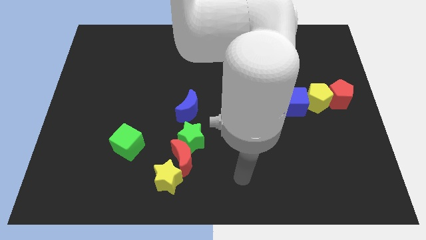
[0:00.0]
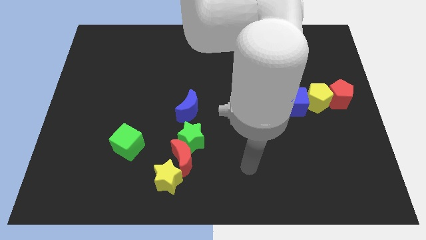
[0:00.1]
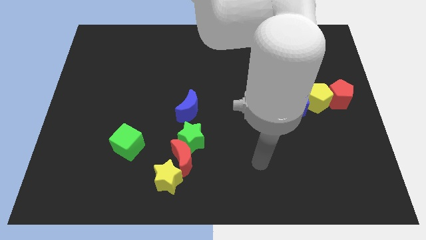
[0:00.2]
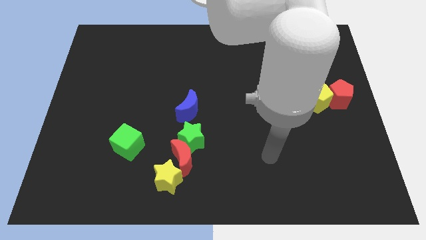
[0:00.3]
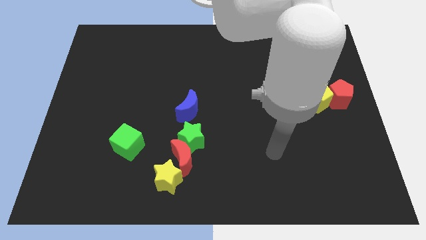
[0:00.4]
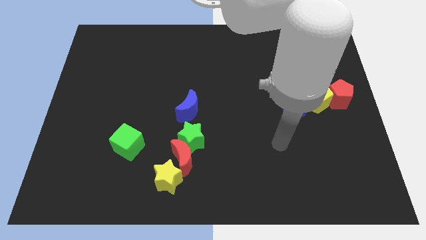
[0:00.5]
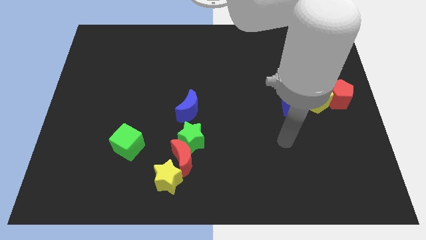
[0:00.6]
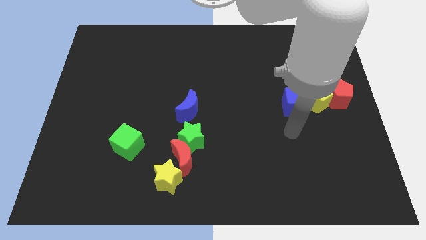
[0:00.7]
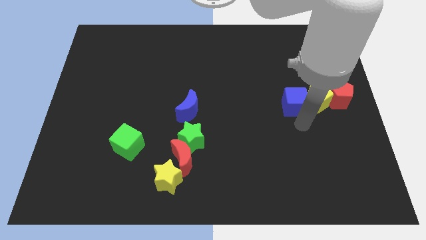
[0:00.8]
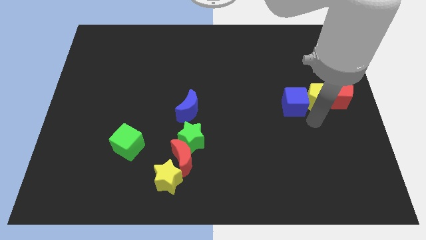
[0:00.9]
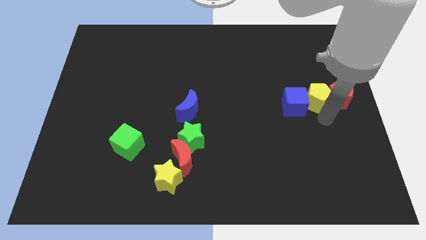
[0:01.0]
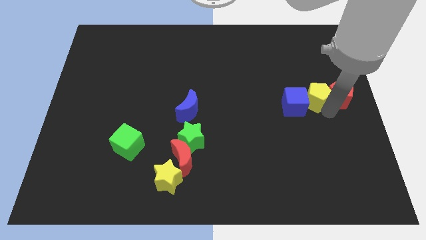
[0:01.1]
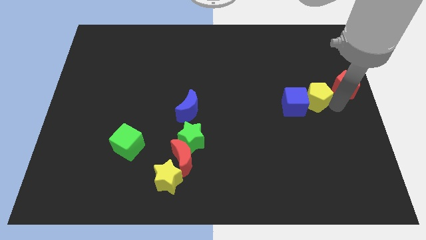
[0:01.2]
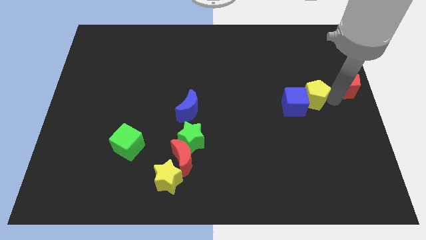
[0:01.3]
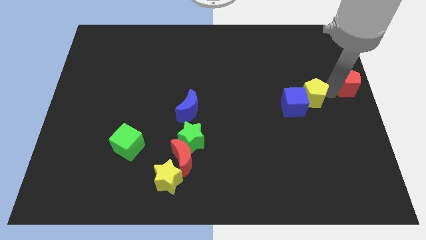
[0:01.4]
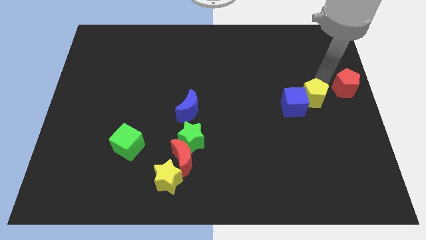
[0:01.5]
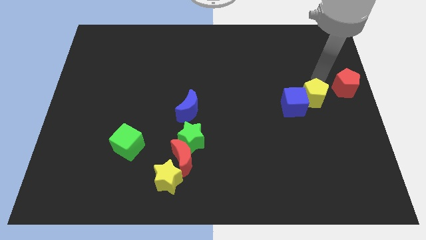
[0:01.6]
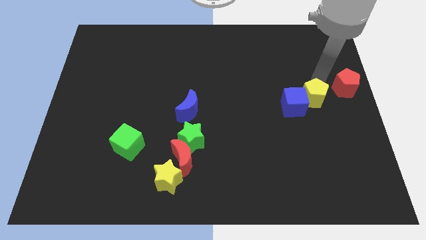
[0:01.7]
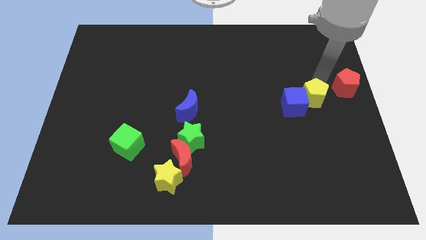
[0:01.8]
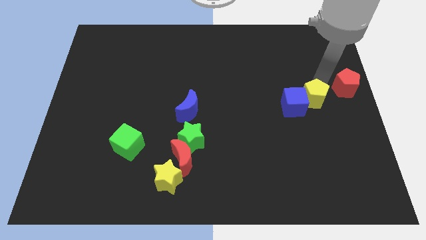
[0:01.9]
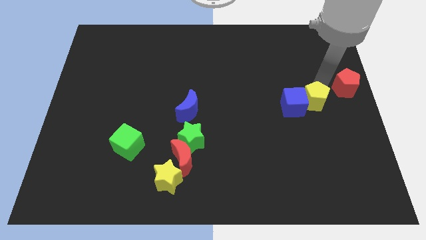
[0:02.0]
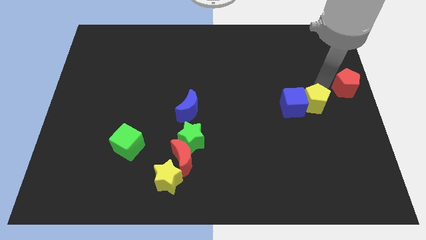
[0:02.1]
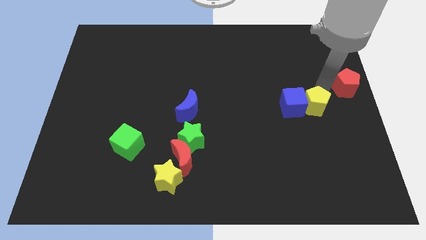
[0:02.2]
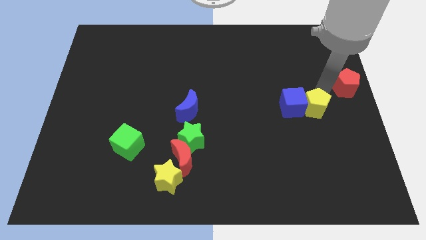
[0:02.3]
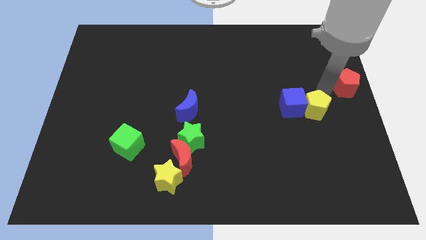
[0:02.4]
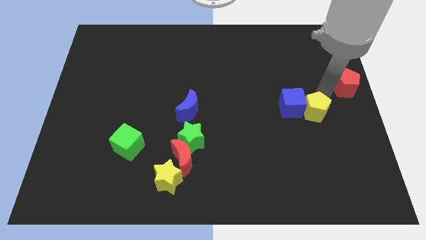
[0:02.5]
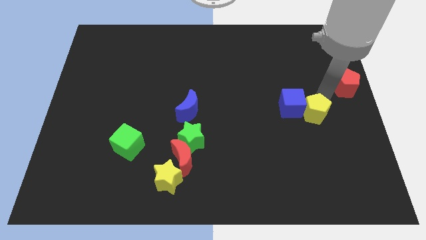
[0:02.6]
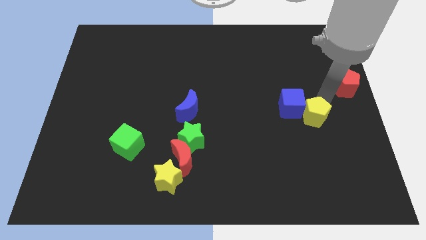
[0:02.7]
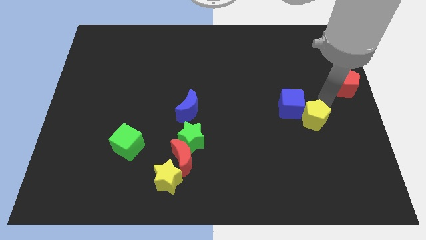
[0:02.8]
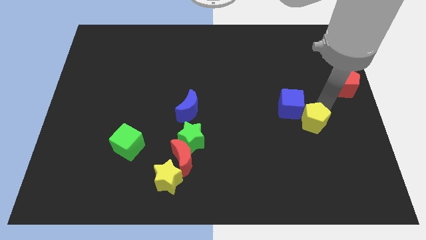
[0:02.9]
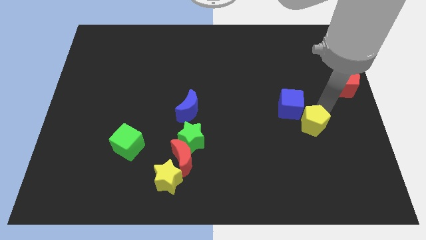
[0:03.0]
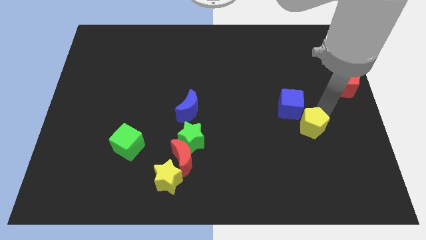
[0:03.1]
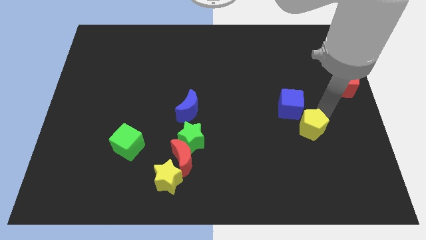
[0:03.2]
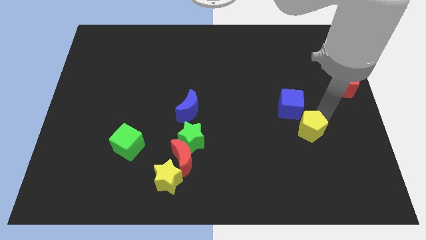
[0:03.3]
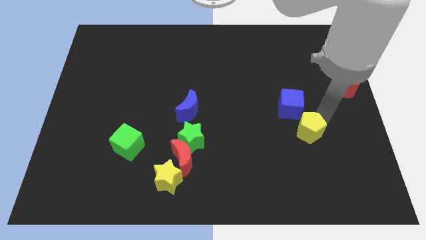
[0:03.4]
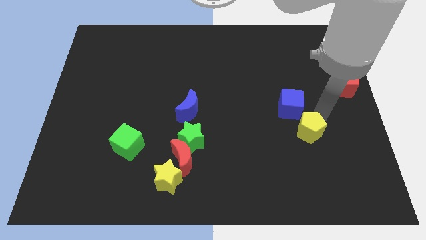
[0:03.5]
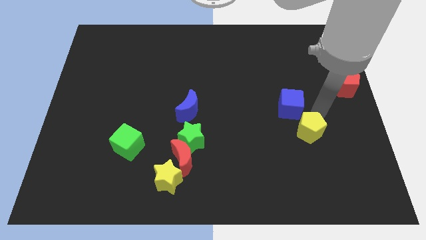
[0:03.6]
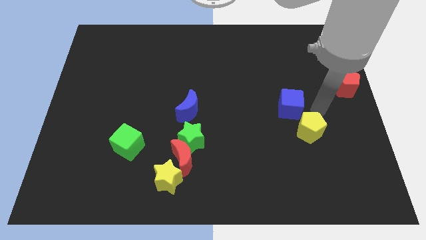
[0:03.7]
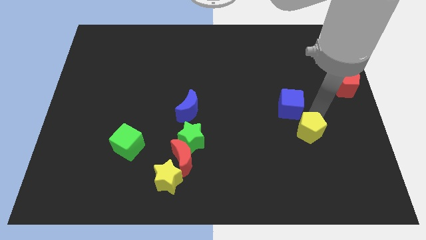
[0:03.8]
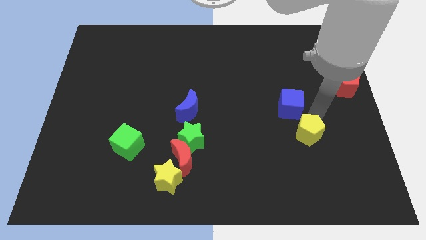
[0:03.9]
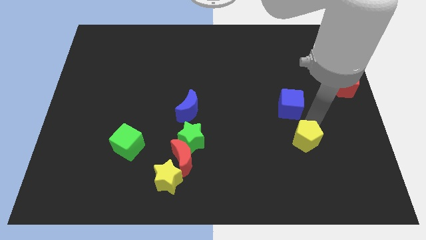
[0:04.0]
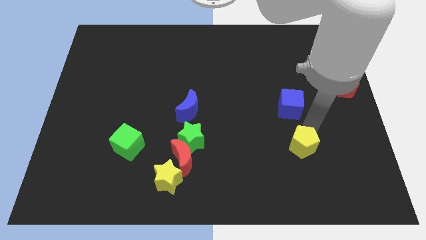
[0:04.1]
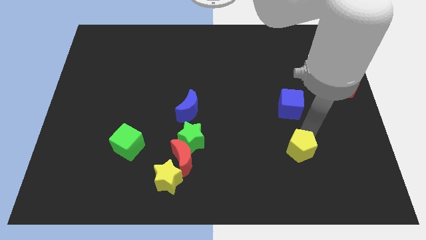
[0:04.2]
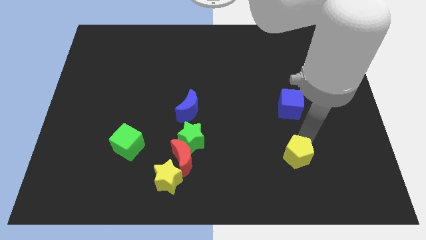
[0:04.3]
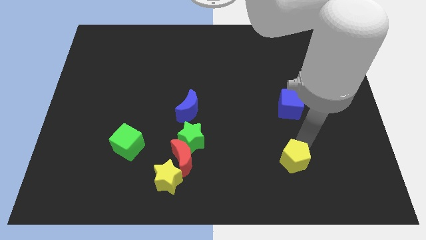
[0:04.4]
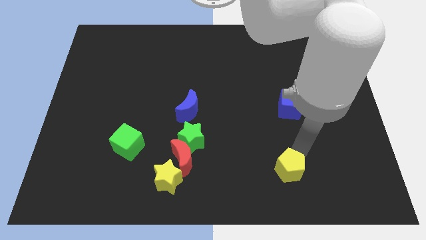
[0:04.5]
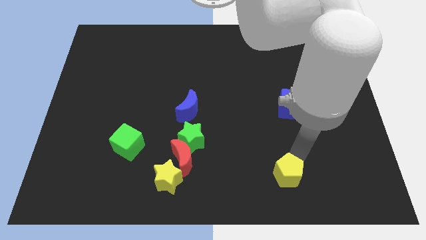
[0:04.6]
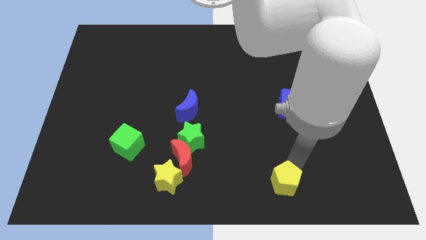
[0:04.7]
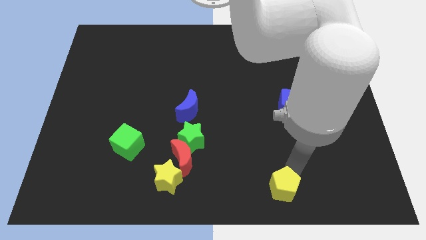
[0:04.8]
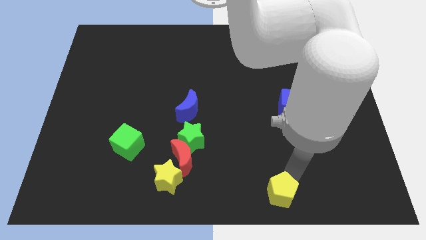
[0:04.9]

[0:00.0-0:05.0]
slide the yellow pentagon to the bottom

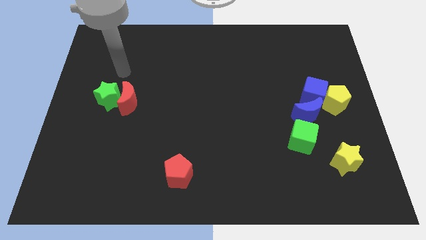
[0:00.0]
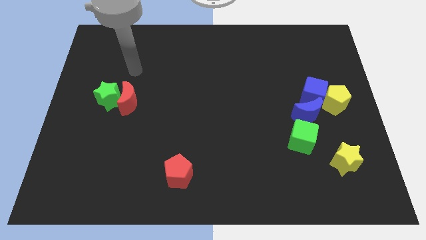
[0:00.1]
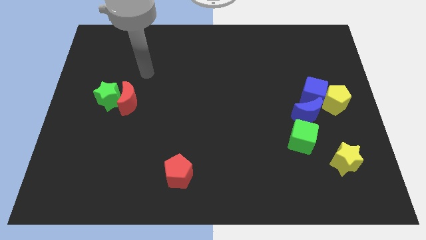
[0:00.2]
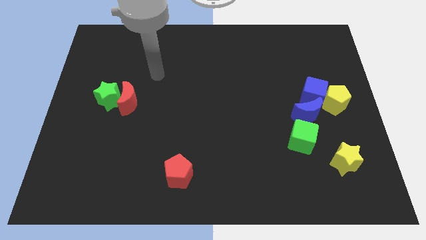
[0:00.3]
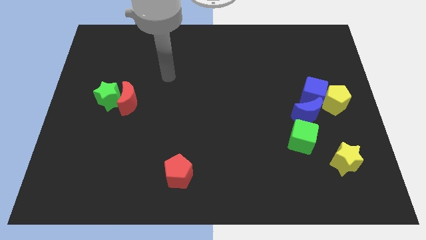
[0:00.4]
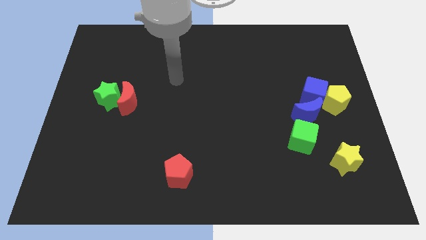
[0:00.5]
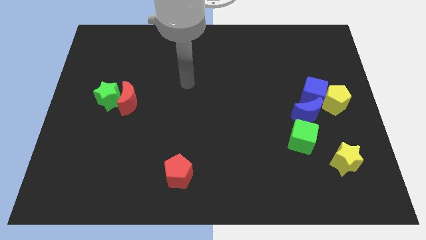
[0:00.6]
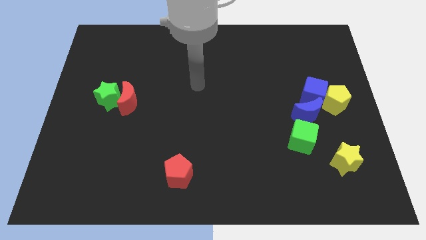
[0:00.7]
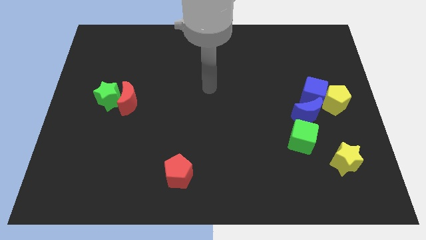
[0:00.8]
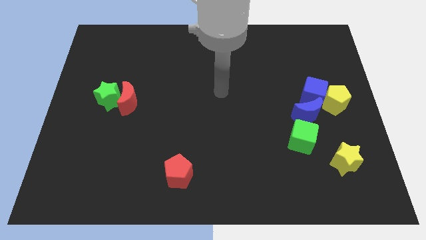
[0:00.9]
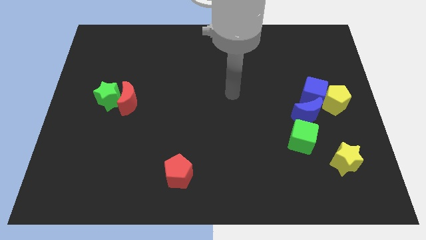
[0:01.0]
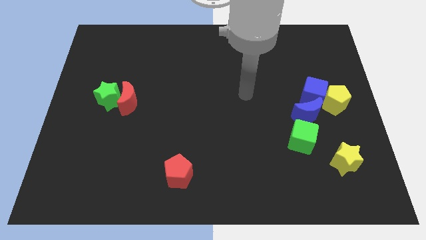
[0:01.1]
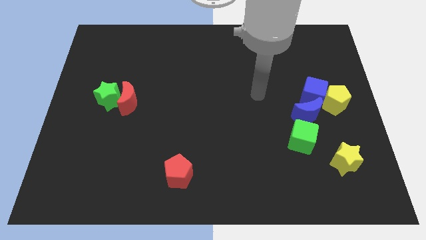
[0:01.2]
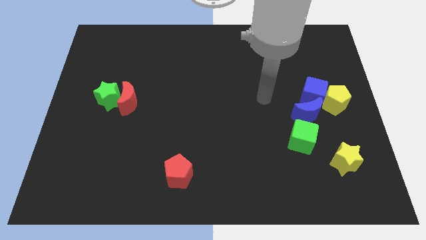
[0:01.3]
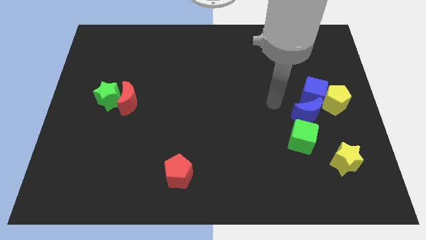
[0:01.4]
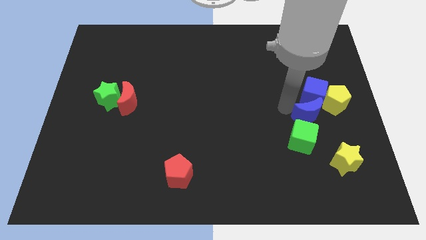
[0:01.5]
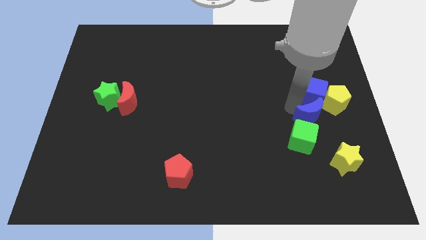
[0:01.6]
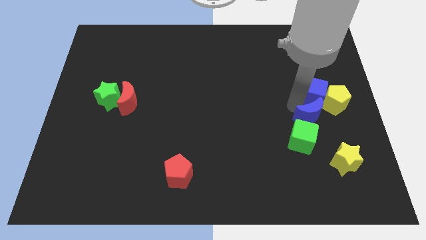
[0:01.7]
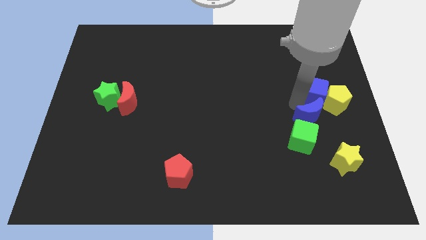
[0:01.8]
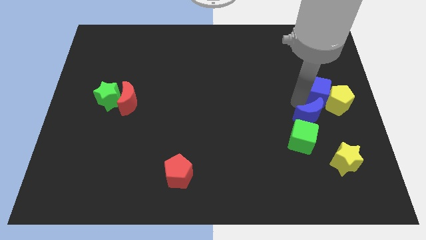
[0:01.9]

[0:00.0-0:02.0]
slide the blue cube to the right side

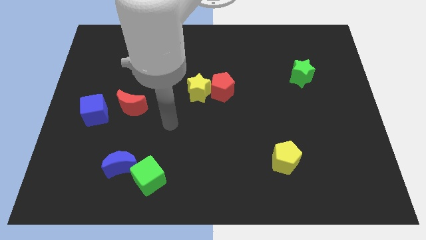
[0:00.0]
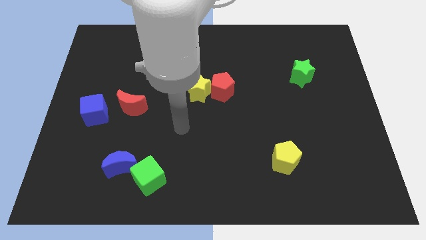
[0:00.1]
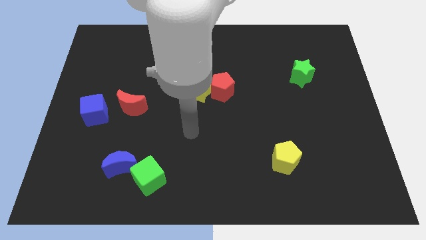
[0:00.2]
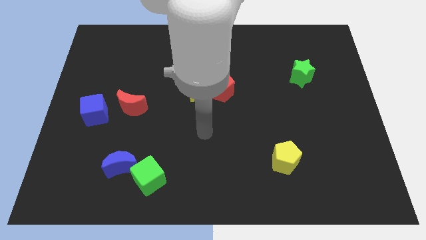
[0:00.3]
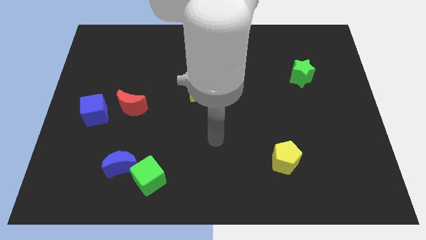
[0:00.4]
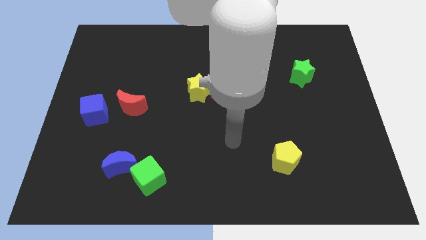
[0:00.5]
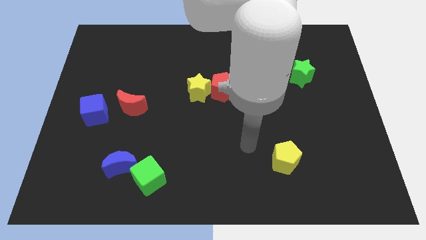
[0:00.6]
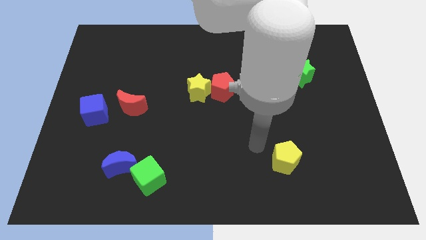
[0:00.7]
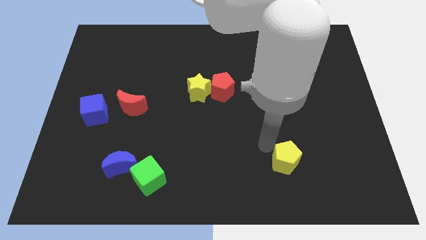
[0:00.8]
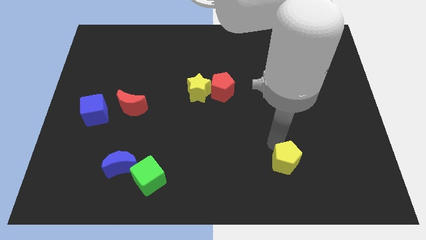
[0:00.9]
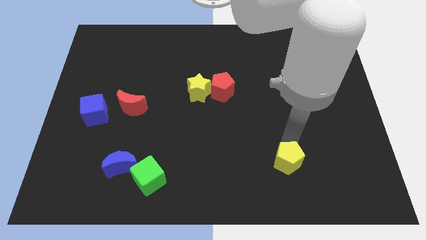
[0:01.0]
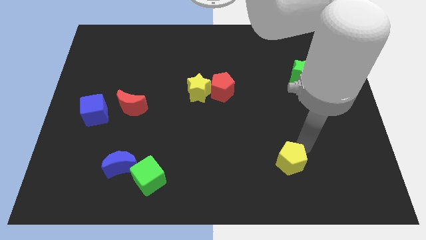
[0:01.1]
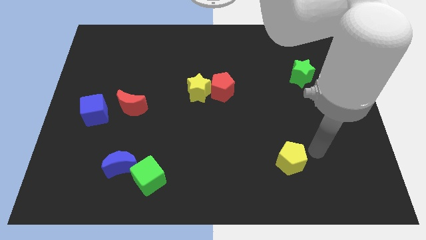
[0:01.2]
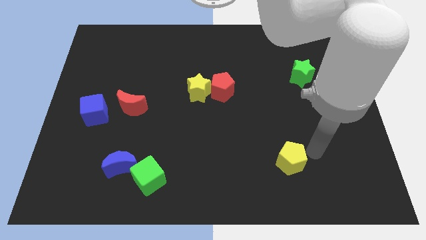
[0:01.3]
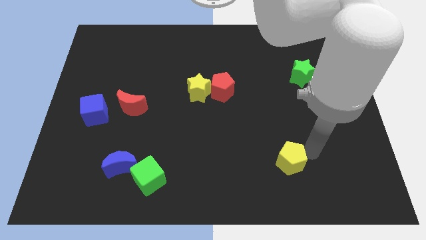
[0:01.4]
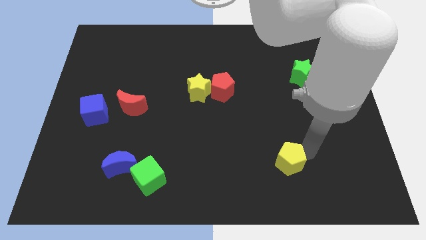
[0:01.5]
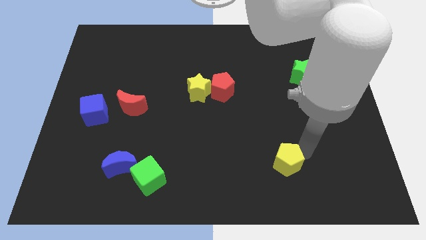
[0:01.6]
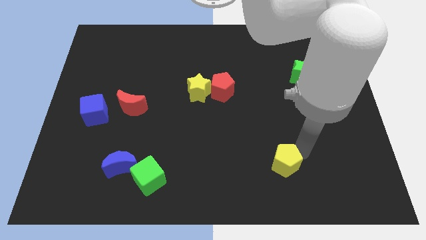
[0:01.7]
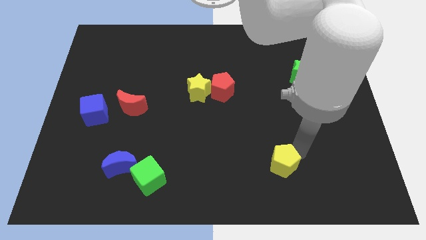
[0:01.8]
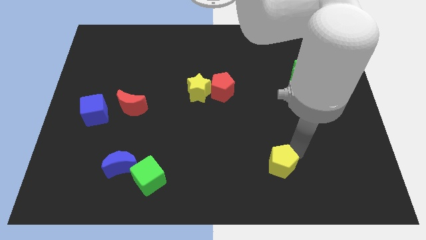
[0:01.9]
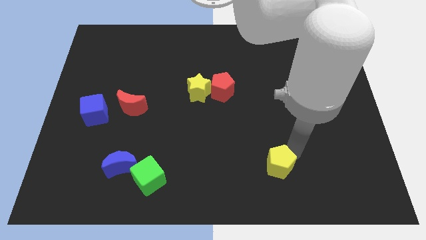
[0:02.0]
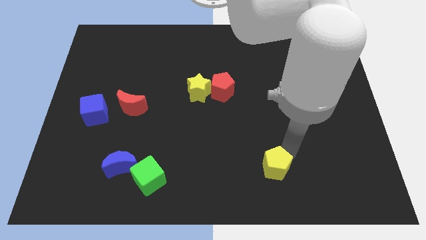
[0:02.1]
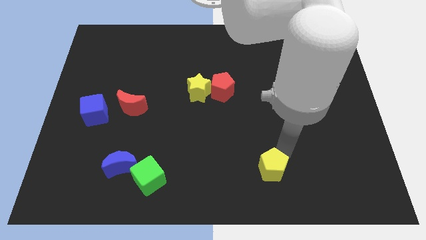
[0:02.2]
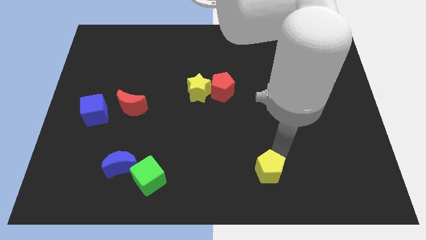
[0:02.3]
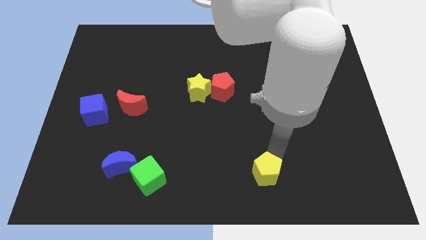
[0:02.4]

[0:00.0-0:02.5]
slide the yellow pentagon to the bottom side
